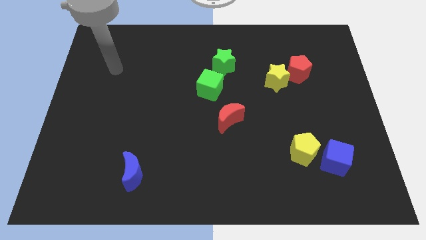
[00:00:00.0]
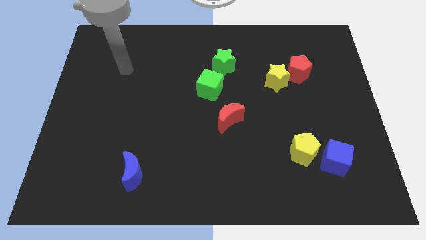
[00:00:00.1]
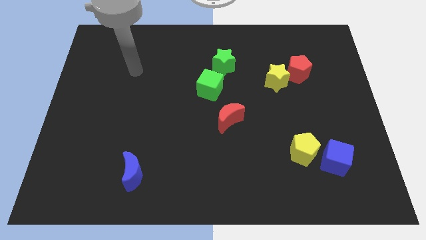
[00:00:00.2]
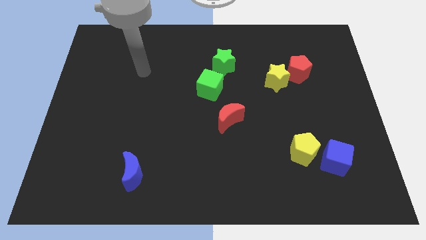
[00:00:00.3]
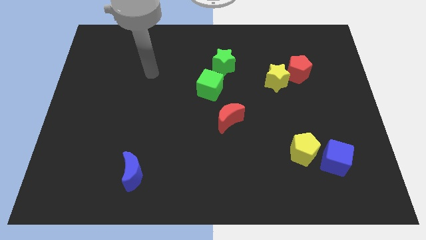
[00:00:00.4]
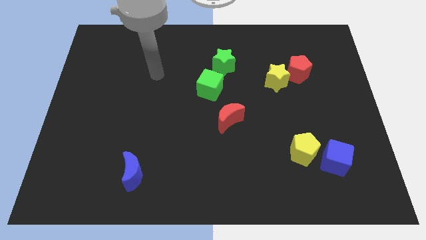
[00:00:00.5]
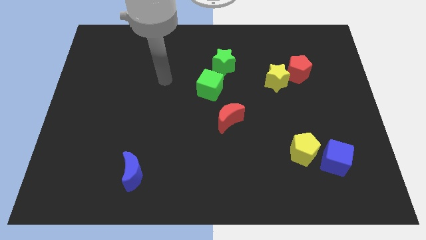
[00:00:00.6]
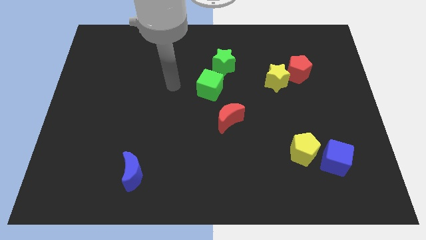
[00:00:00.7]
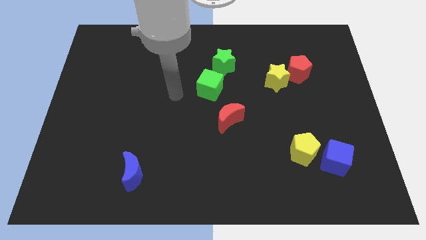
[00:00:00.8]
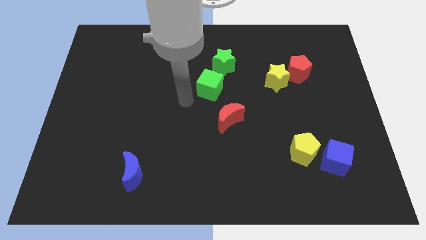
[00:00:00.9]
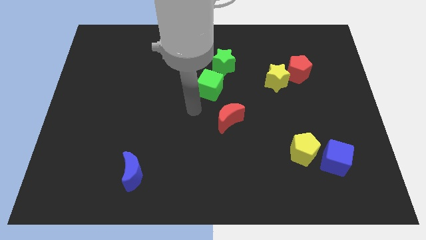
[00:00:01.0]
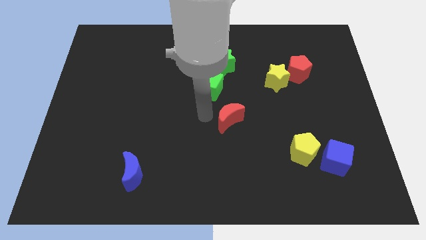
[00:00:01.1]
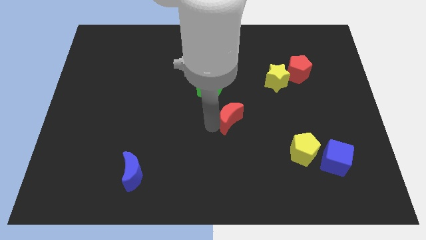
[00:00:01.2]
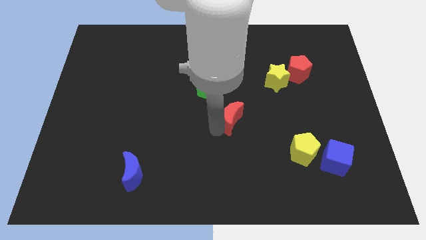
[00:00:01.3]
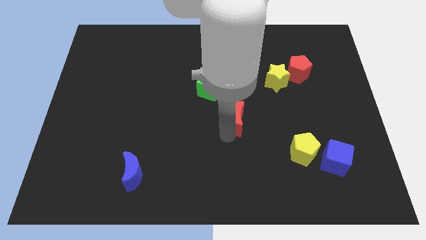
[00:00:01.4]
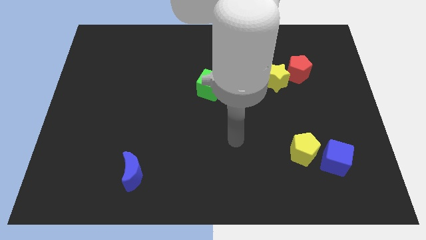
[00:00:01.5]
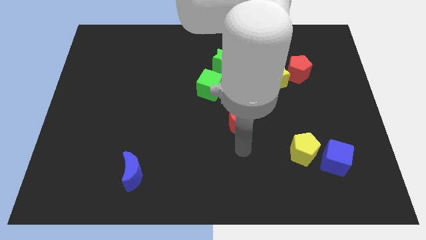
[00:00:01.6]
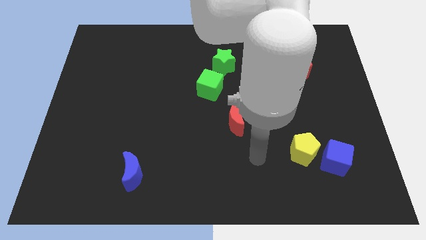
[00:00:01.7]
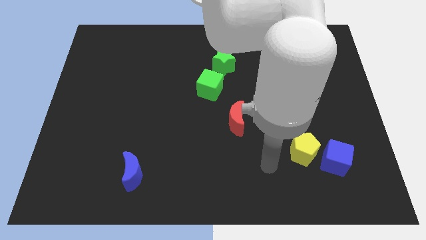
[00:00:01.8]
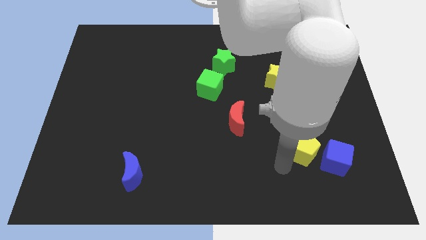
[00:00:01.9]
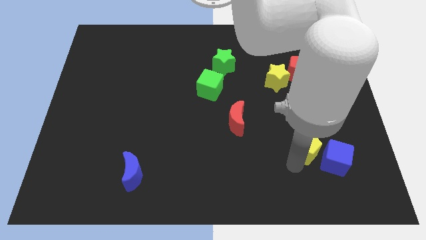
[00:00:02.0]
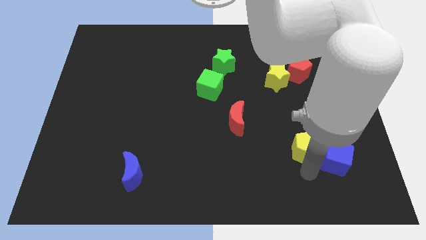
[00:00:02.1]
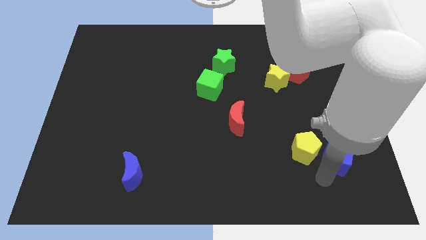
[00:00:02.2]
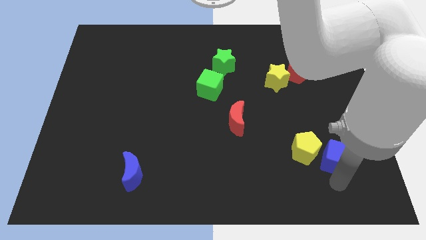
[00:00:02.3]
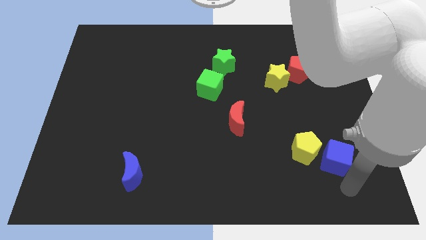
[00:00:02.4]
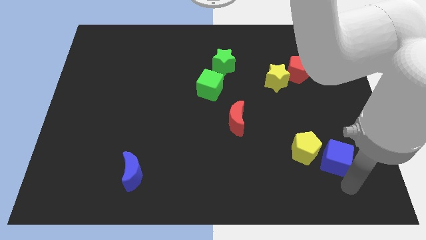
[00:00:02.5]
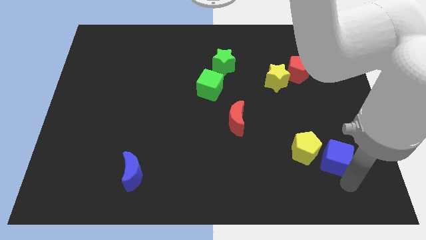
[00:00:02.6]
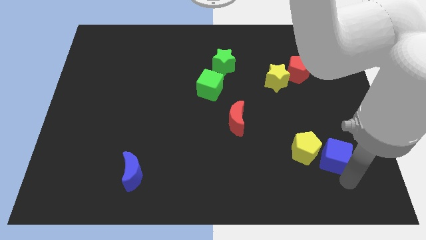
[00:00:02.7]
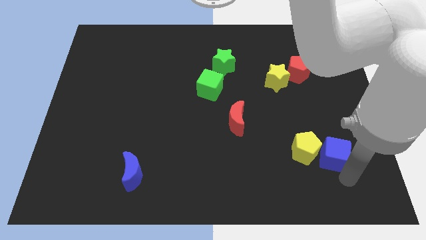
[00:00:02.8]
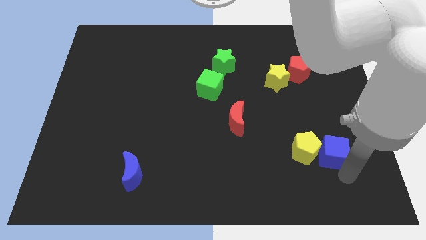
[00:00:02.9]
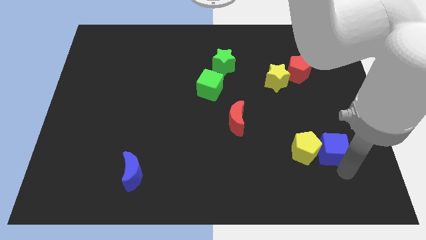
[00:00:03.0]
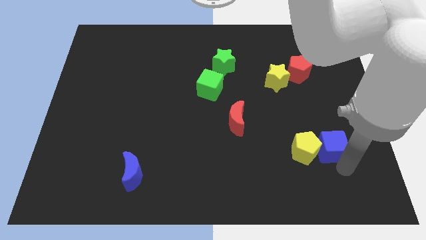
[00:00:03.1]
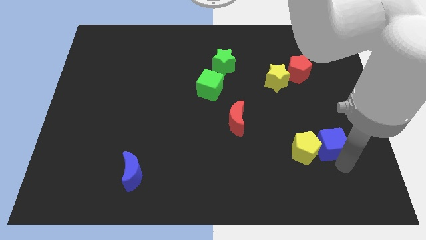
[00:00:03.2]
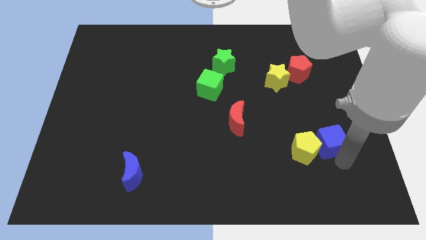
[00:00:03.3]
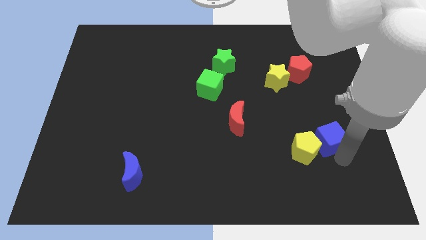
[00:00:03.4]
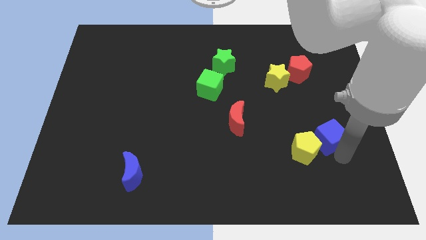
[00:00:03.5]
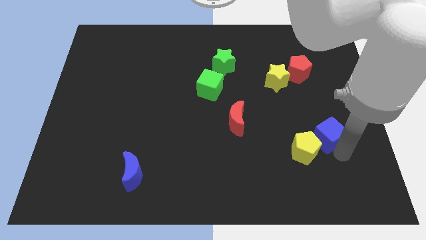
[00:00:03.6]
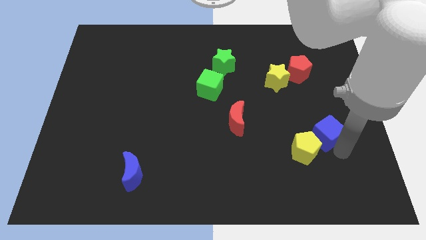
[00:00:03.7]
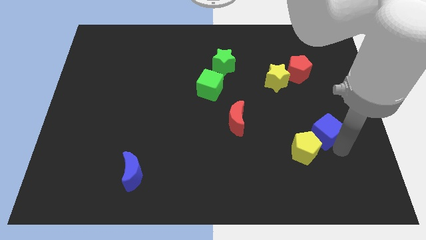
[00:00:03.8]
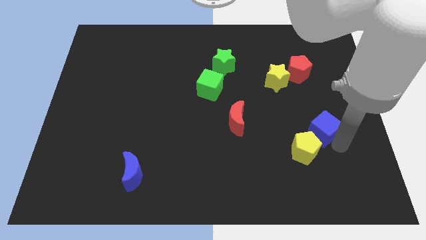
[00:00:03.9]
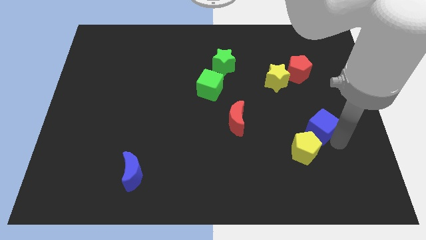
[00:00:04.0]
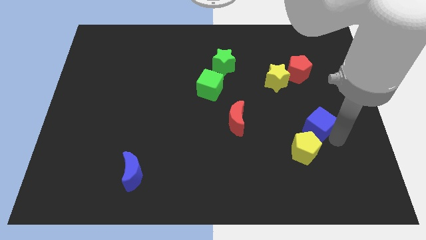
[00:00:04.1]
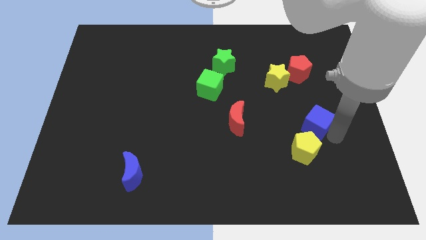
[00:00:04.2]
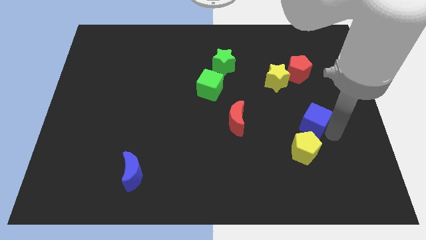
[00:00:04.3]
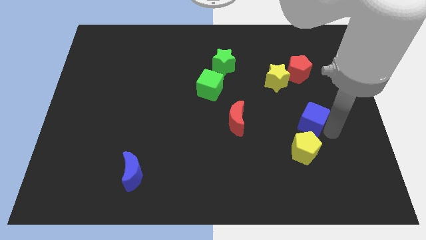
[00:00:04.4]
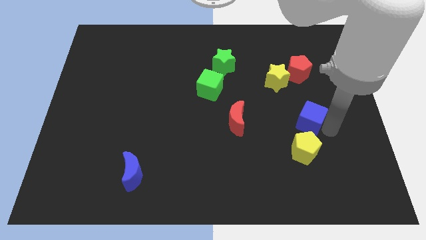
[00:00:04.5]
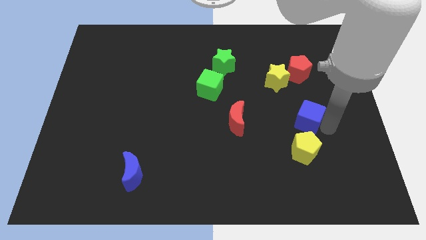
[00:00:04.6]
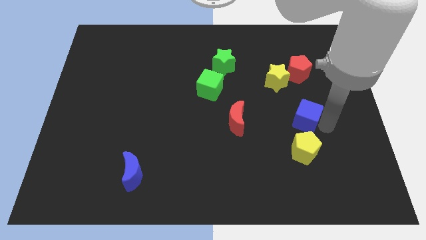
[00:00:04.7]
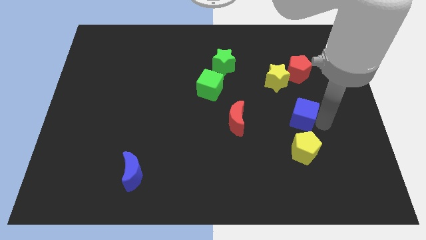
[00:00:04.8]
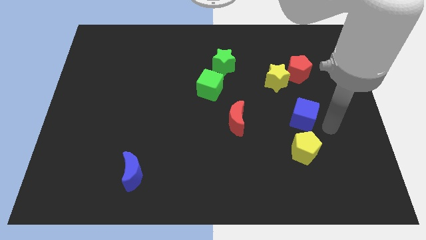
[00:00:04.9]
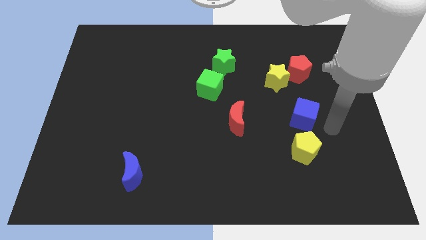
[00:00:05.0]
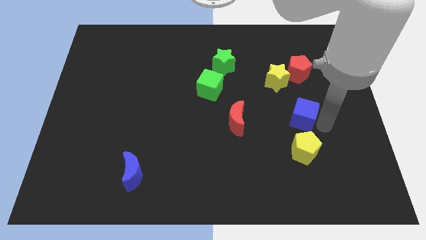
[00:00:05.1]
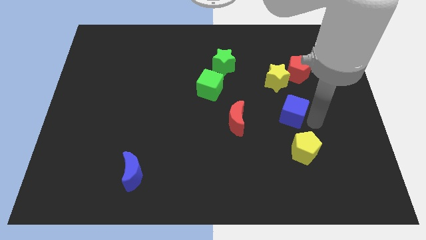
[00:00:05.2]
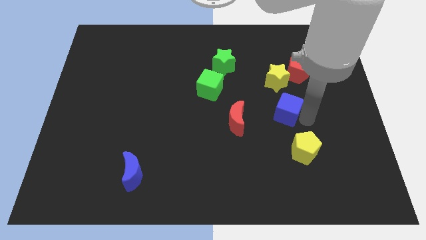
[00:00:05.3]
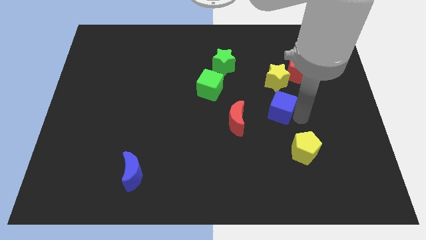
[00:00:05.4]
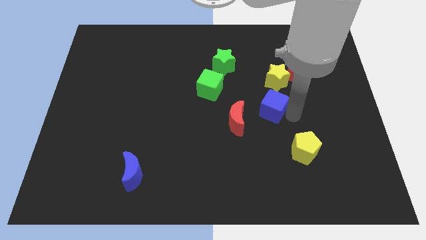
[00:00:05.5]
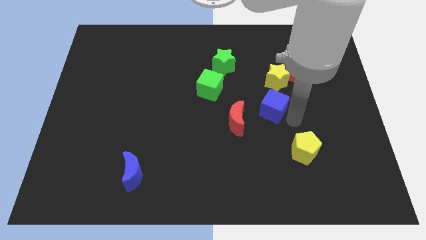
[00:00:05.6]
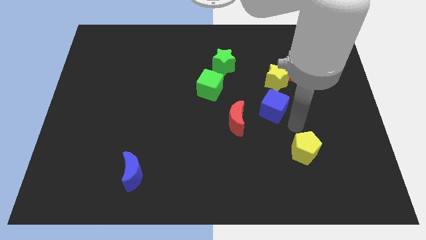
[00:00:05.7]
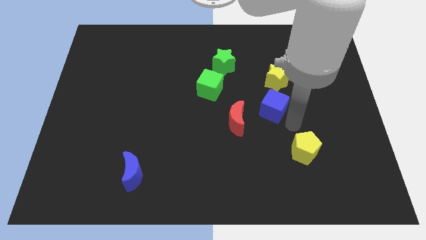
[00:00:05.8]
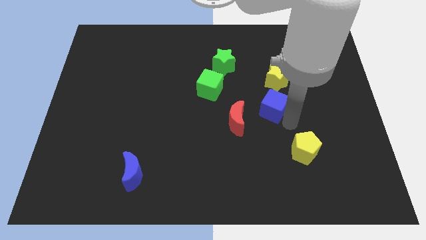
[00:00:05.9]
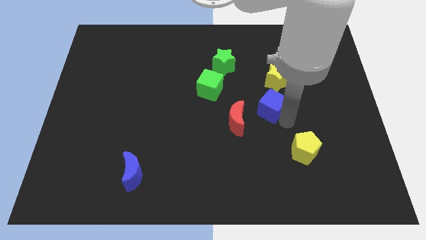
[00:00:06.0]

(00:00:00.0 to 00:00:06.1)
put the blue cube diagonally down and to the left of the yellow star
